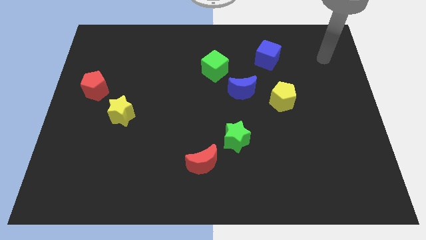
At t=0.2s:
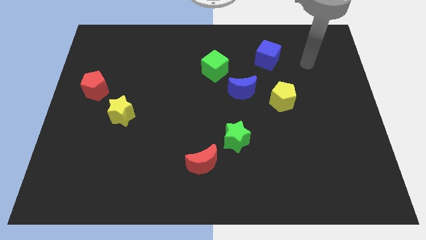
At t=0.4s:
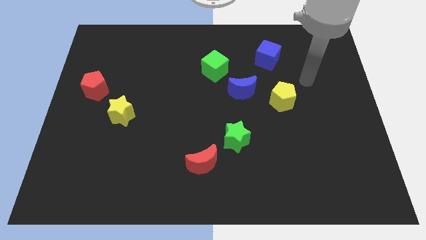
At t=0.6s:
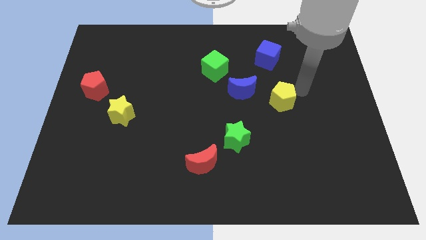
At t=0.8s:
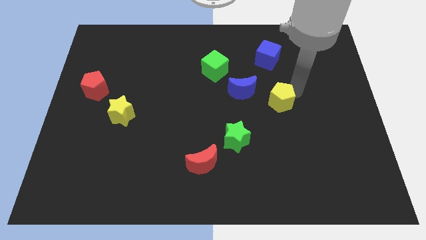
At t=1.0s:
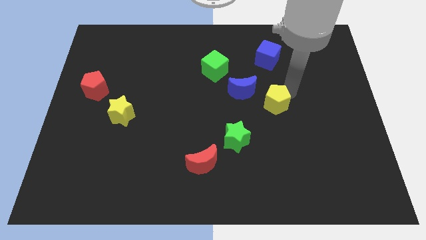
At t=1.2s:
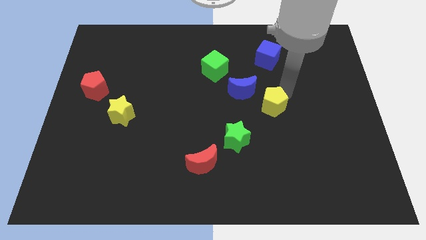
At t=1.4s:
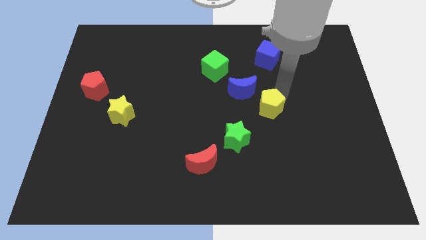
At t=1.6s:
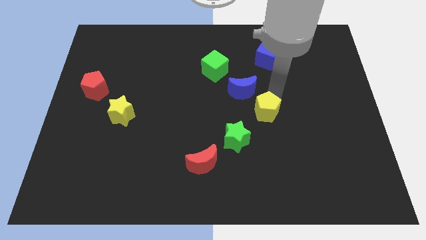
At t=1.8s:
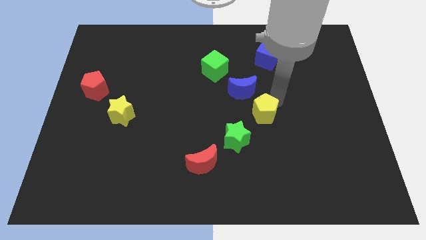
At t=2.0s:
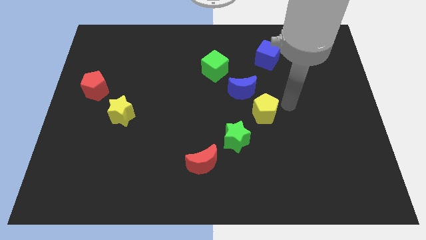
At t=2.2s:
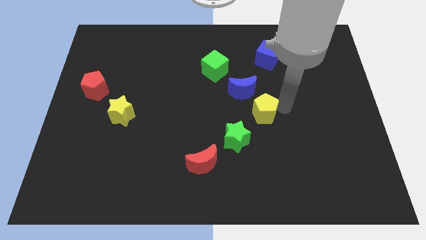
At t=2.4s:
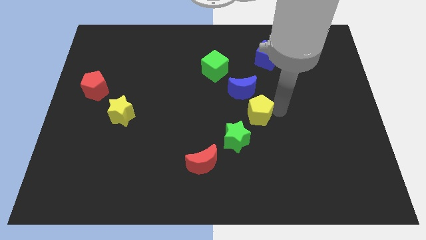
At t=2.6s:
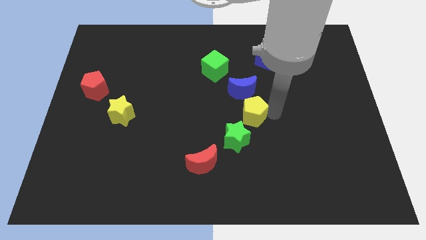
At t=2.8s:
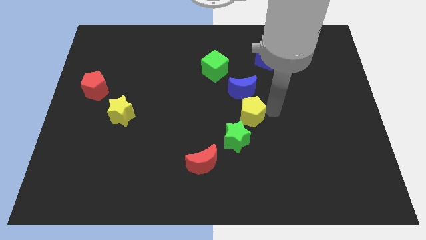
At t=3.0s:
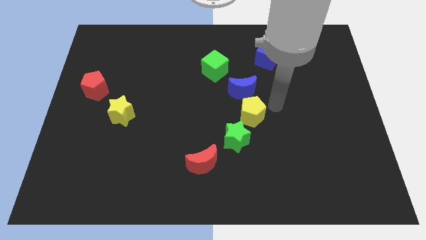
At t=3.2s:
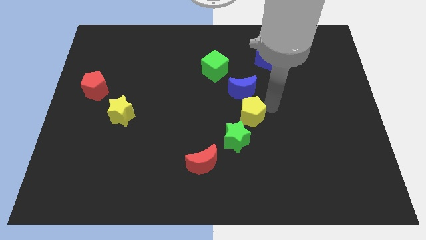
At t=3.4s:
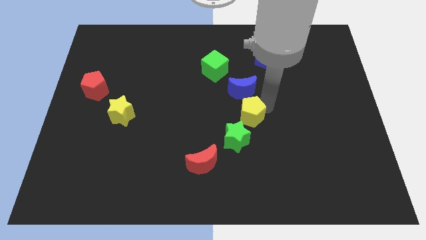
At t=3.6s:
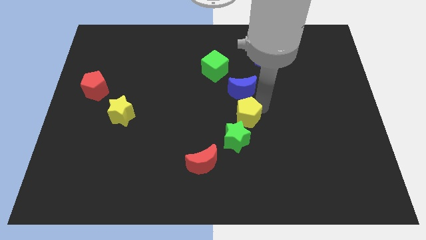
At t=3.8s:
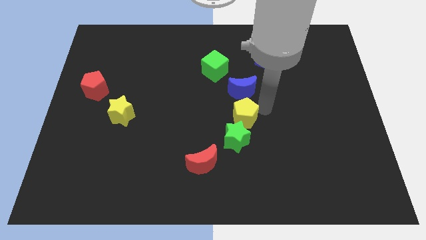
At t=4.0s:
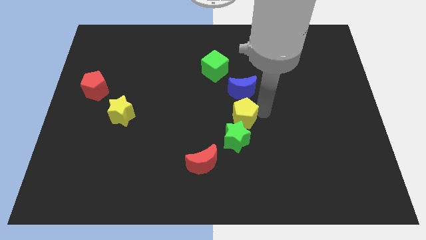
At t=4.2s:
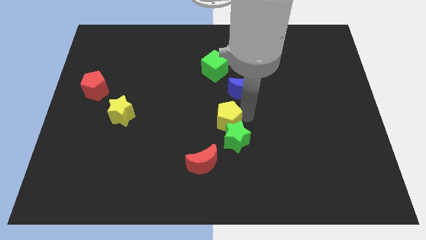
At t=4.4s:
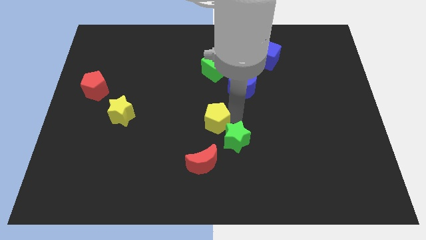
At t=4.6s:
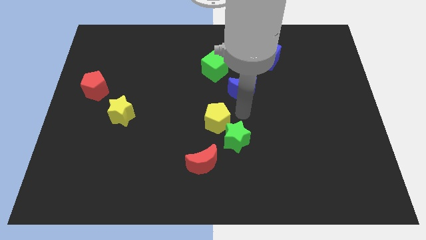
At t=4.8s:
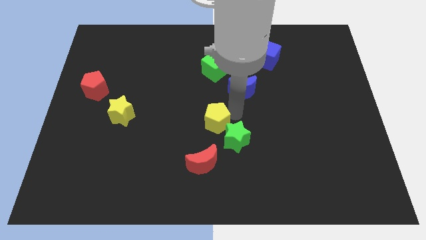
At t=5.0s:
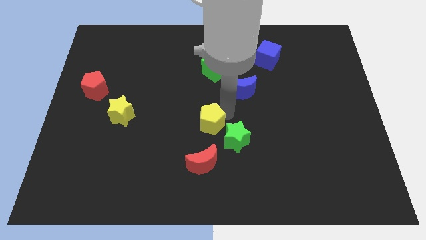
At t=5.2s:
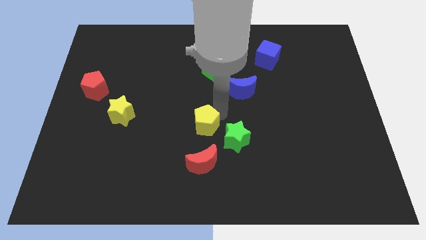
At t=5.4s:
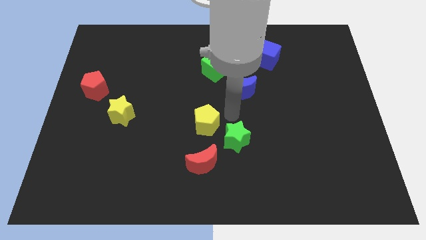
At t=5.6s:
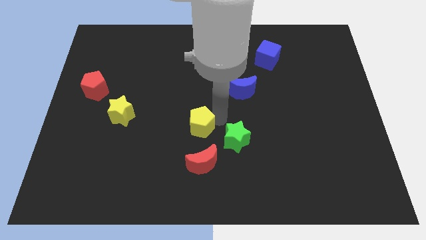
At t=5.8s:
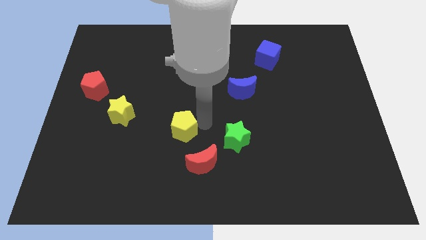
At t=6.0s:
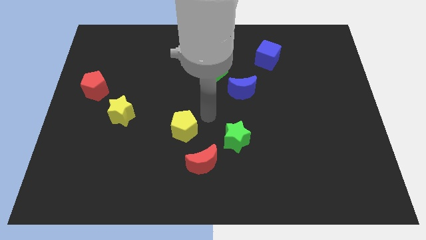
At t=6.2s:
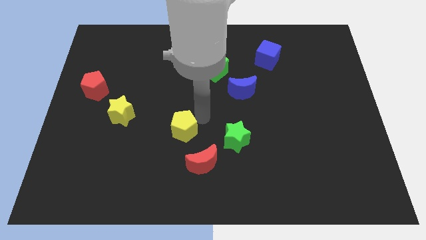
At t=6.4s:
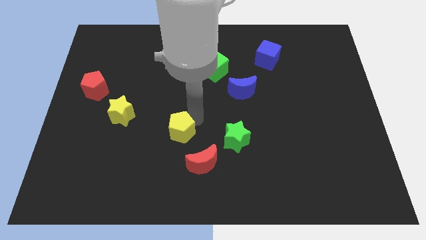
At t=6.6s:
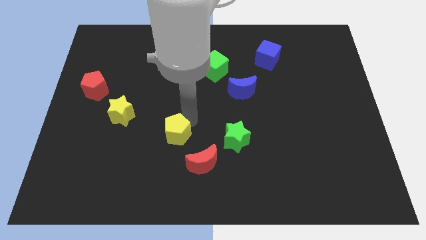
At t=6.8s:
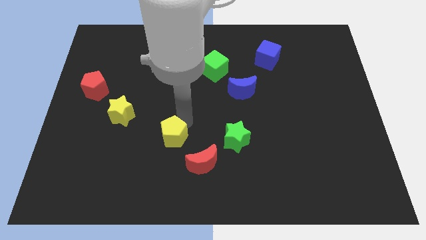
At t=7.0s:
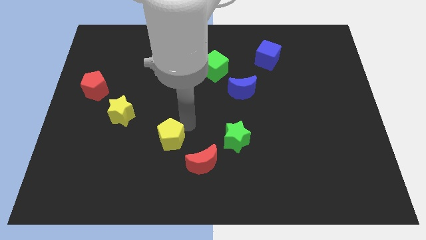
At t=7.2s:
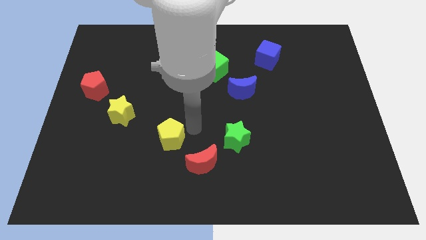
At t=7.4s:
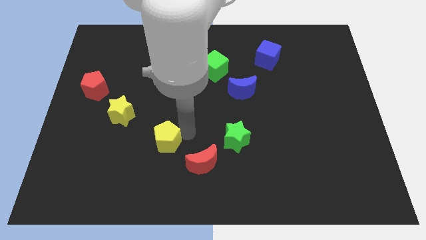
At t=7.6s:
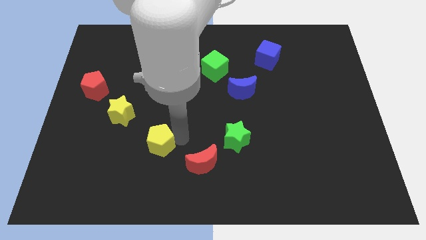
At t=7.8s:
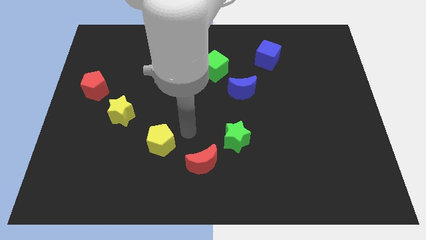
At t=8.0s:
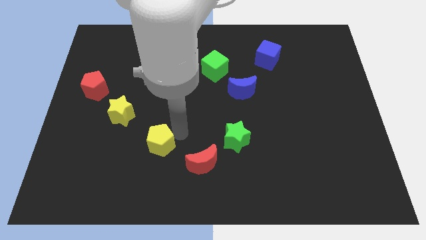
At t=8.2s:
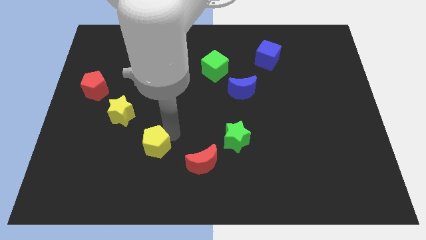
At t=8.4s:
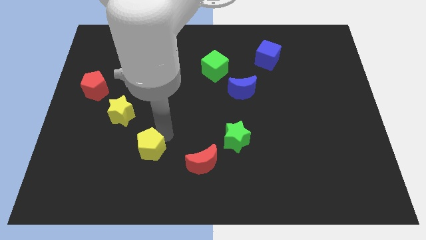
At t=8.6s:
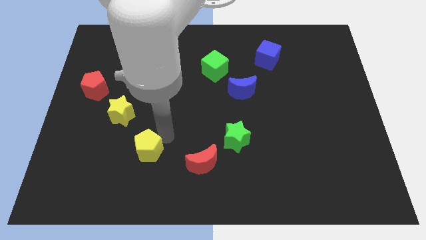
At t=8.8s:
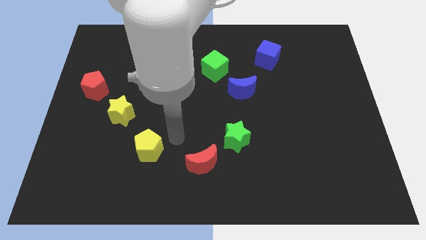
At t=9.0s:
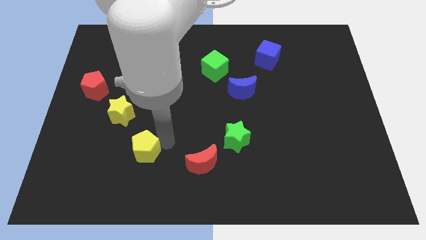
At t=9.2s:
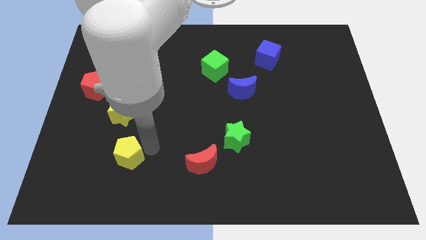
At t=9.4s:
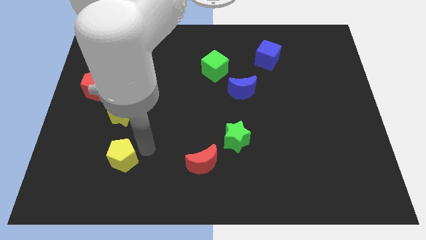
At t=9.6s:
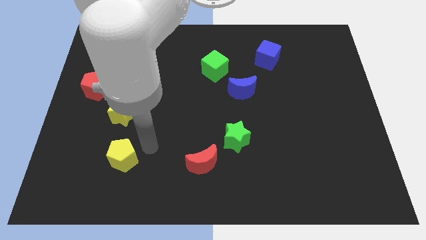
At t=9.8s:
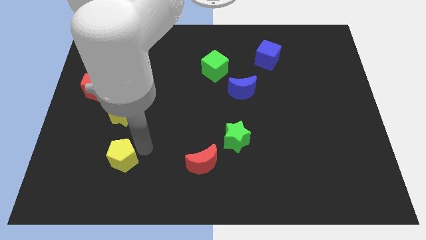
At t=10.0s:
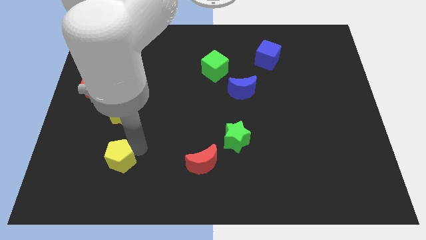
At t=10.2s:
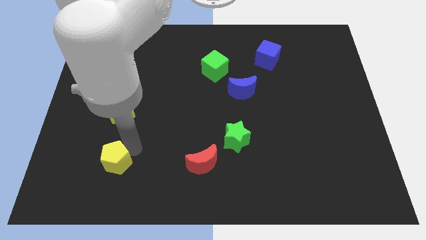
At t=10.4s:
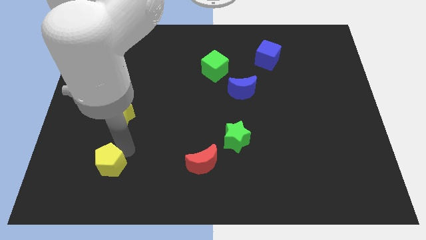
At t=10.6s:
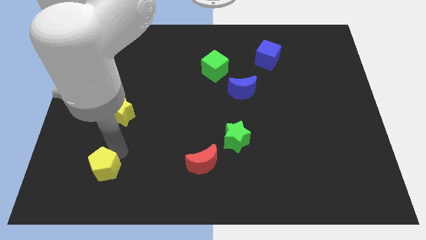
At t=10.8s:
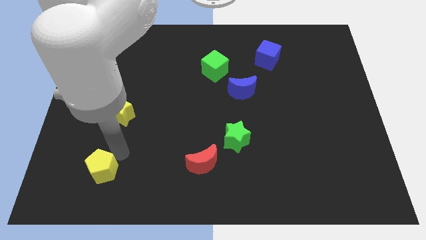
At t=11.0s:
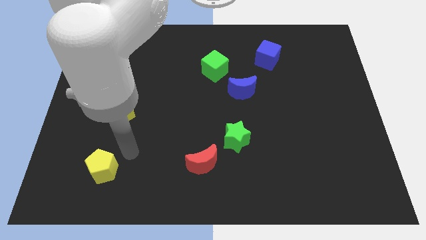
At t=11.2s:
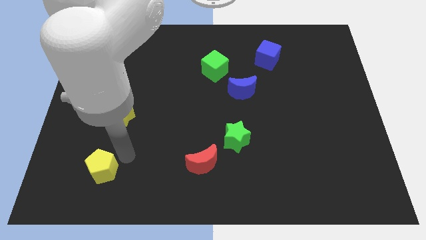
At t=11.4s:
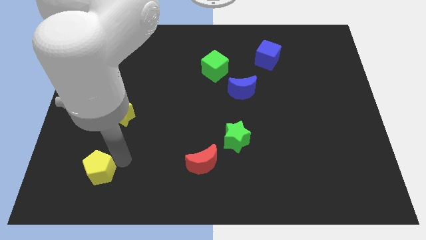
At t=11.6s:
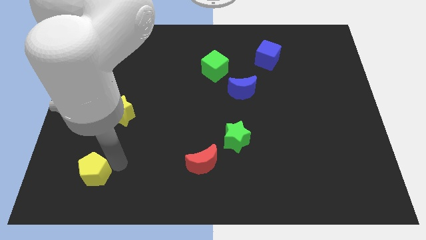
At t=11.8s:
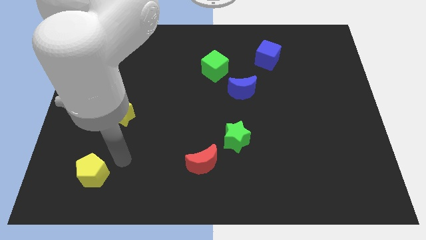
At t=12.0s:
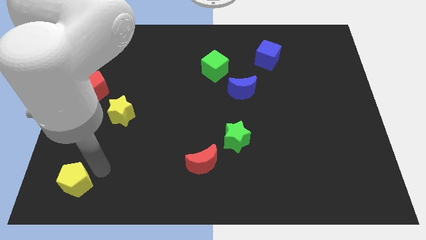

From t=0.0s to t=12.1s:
move the yellow pentagon to the bottom left corner
